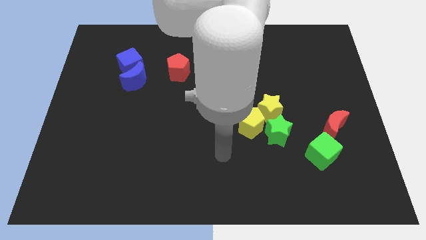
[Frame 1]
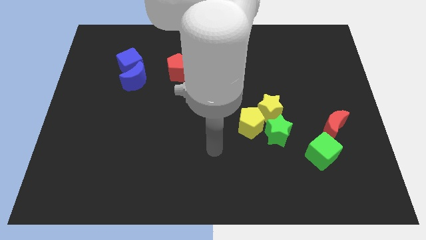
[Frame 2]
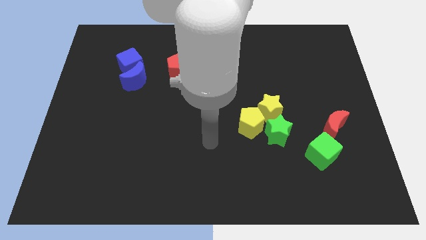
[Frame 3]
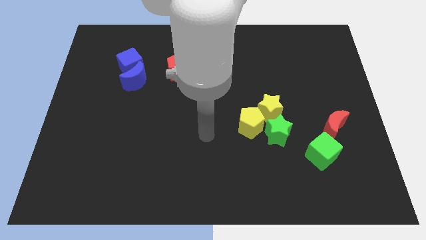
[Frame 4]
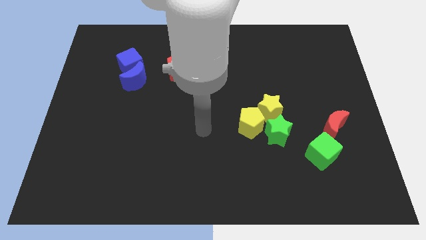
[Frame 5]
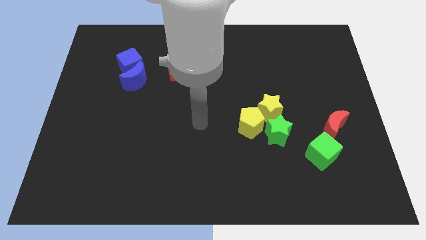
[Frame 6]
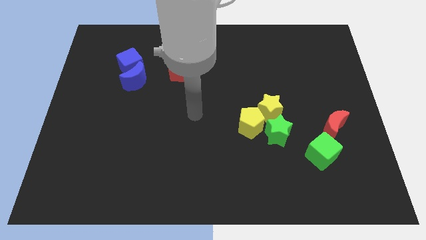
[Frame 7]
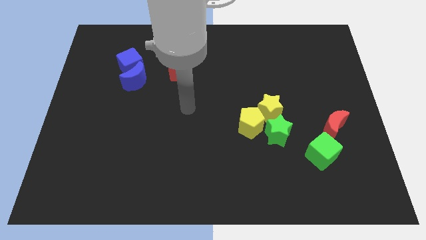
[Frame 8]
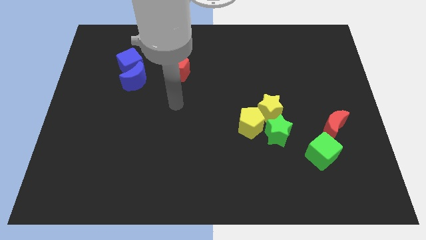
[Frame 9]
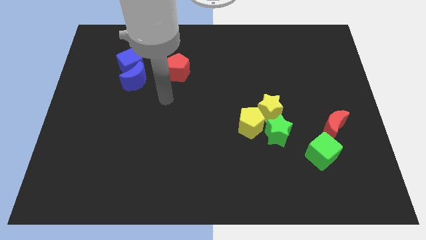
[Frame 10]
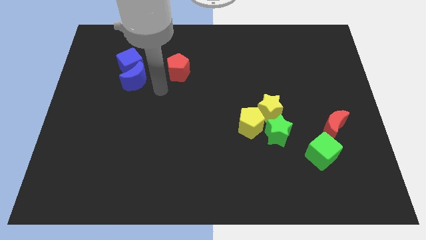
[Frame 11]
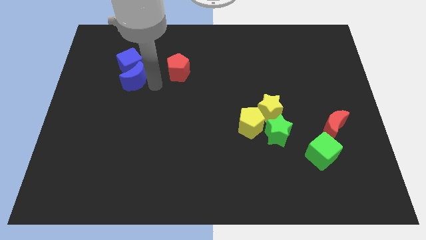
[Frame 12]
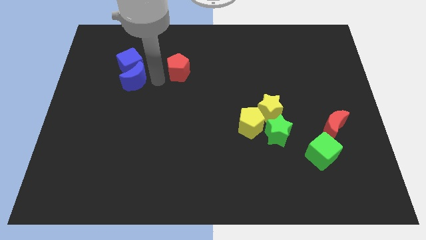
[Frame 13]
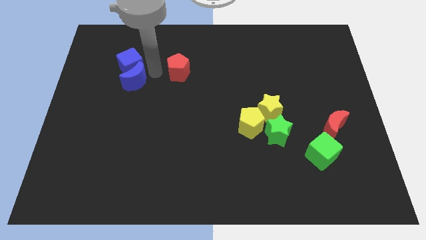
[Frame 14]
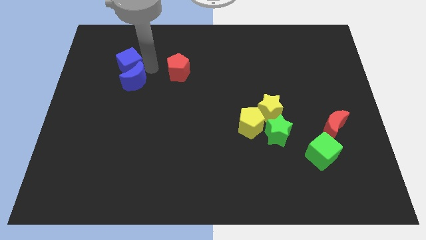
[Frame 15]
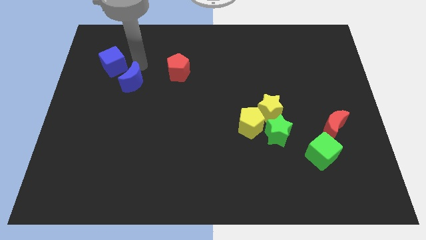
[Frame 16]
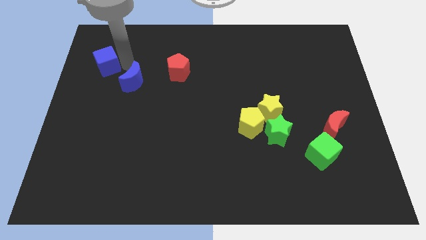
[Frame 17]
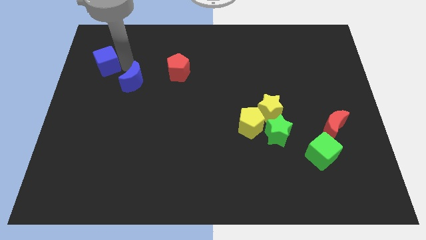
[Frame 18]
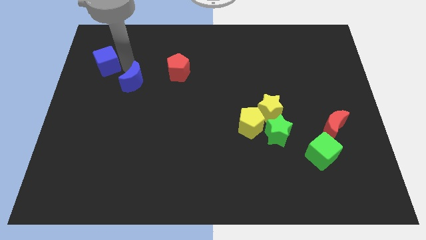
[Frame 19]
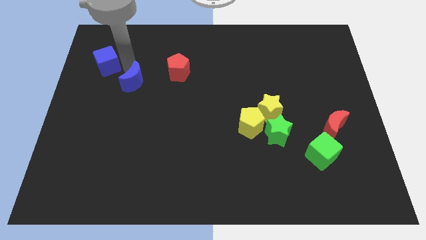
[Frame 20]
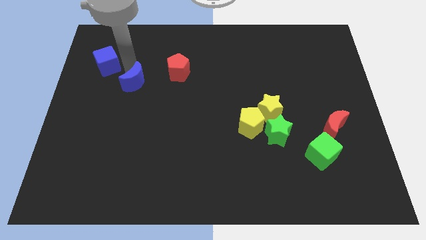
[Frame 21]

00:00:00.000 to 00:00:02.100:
move the blue moon away from the blue cube

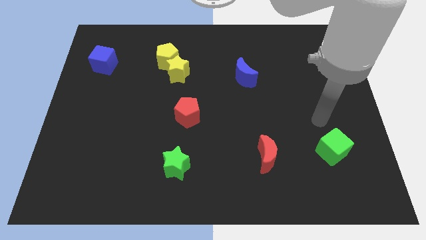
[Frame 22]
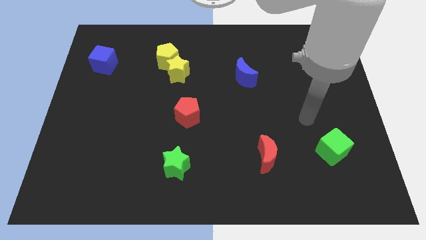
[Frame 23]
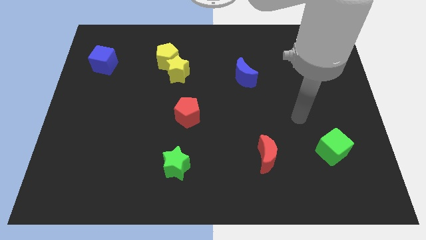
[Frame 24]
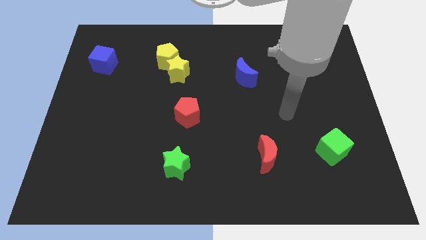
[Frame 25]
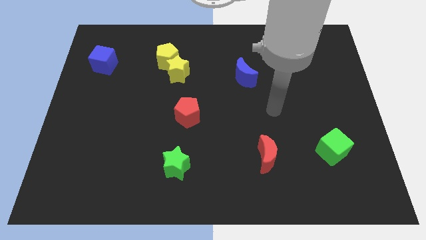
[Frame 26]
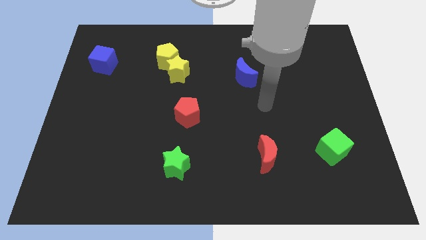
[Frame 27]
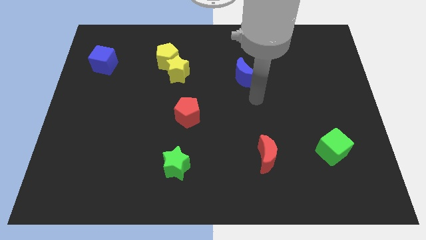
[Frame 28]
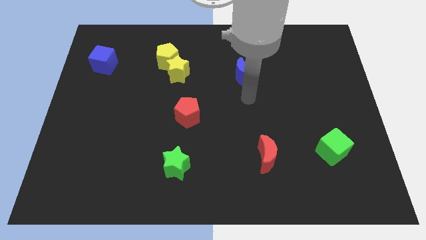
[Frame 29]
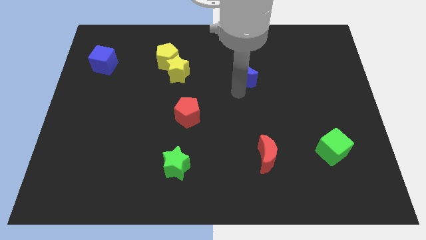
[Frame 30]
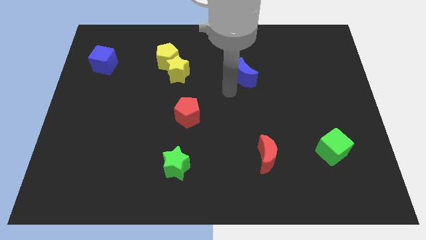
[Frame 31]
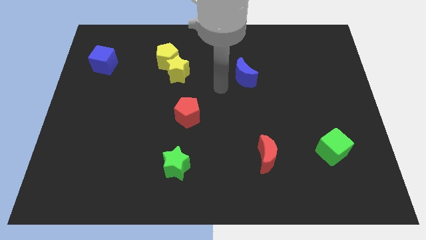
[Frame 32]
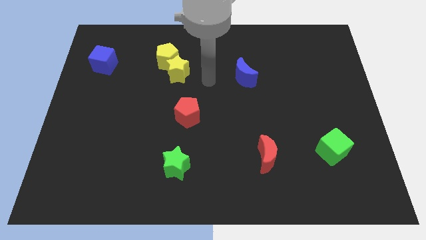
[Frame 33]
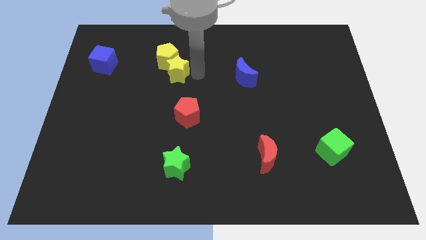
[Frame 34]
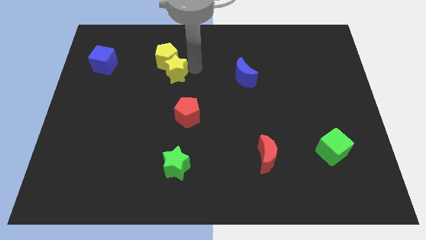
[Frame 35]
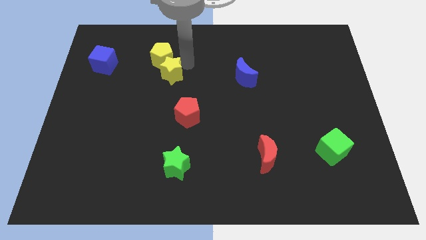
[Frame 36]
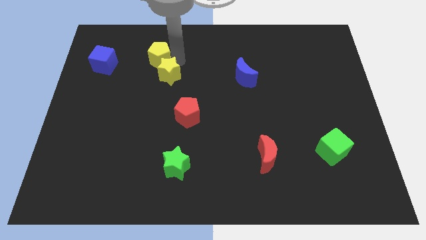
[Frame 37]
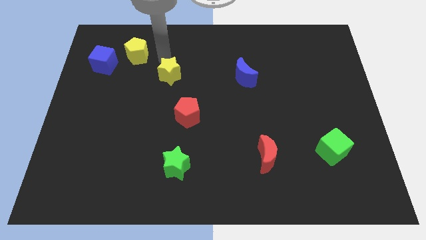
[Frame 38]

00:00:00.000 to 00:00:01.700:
separate the yellow star from the yellow pentagon

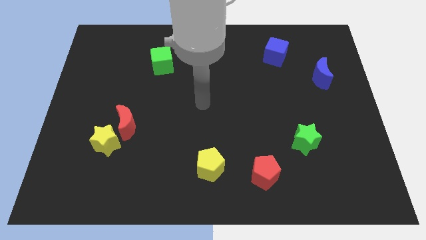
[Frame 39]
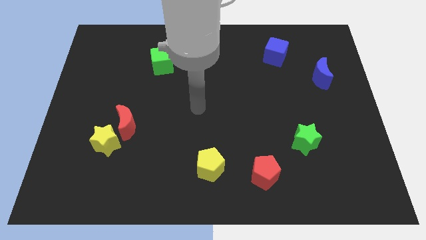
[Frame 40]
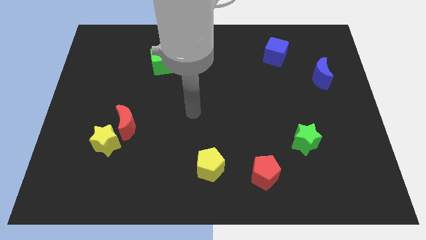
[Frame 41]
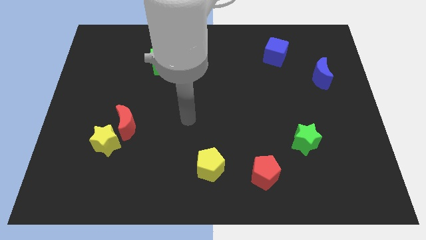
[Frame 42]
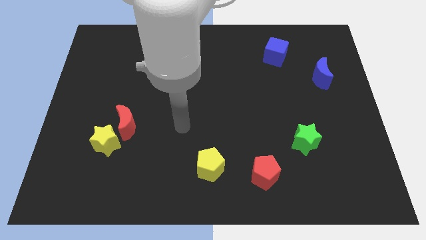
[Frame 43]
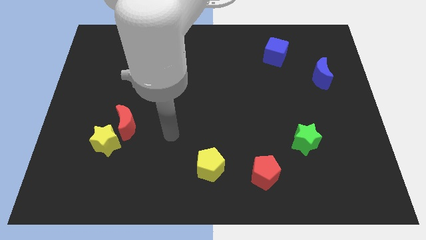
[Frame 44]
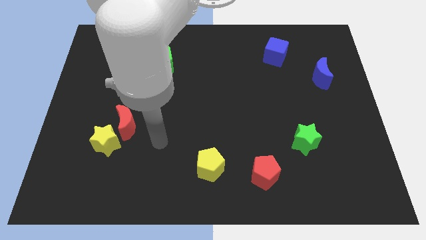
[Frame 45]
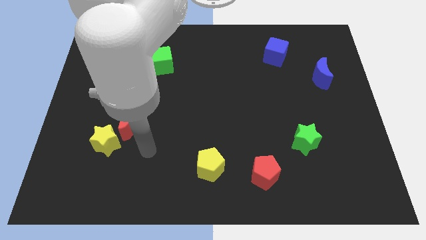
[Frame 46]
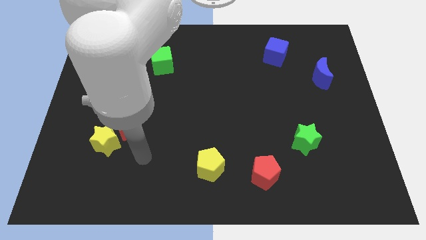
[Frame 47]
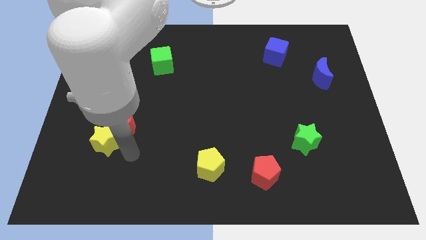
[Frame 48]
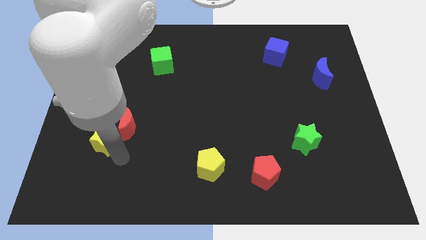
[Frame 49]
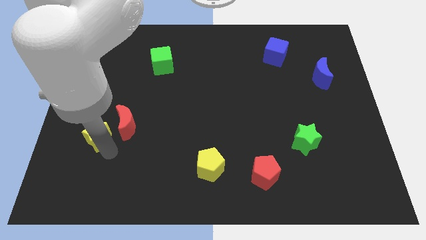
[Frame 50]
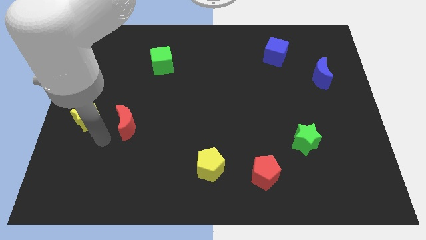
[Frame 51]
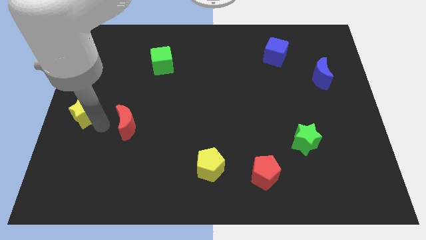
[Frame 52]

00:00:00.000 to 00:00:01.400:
pull the red moon apart from the yellow star

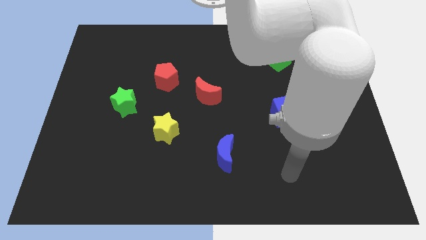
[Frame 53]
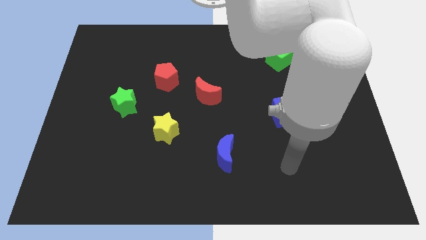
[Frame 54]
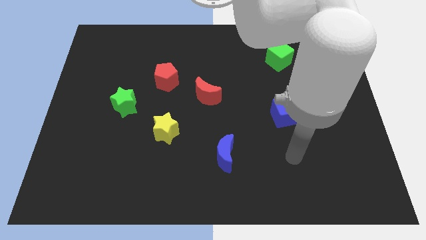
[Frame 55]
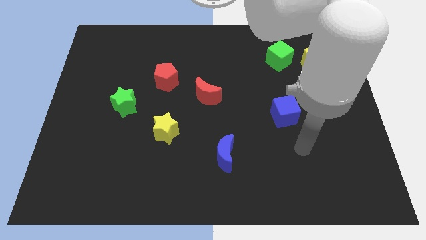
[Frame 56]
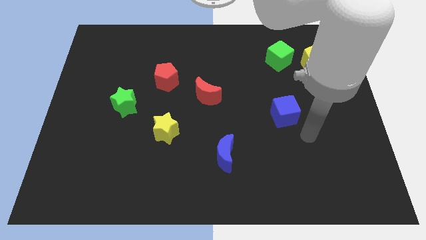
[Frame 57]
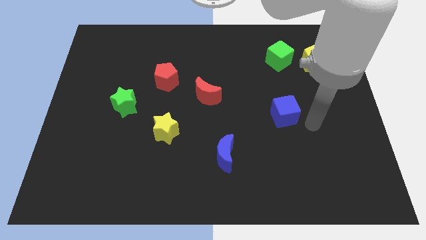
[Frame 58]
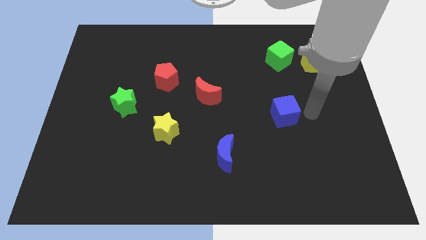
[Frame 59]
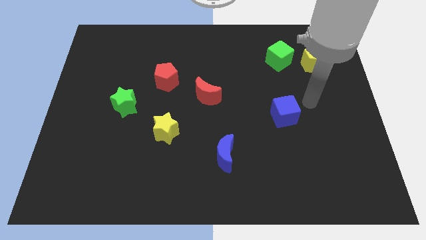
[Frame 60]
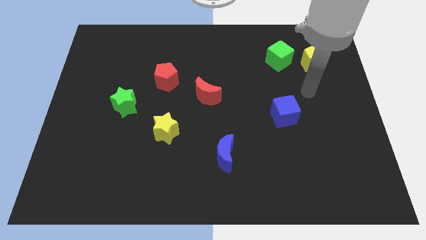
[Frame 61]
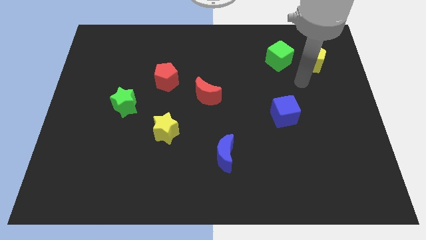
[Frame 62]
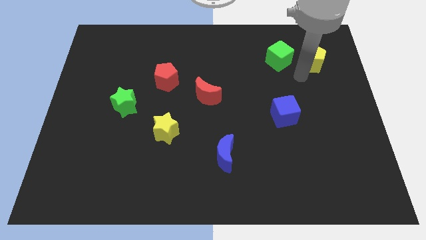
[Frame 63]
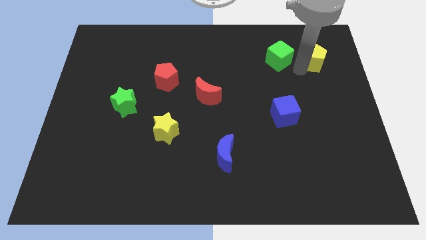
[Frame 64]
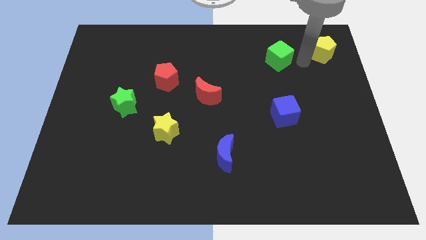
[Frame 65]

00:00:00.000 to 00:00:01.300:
pull the green cube apart from the yellow pentagon

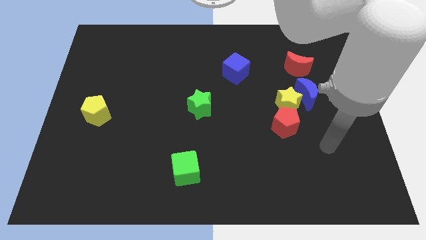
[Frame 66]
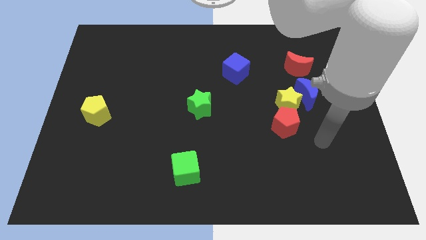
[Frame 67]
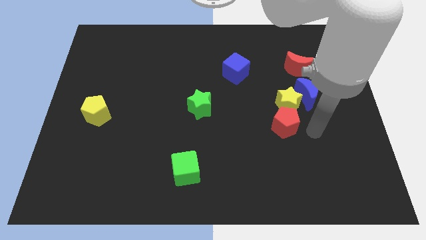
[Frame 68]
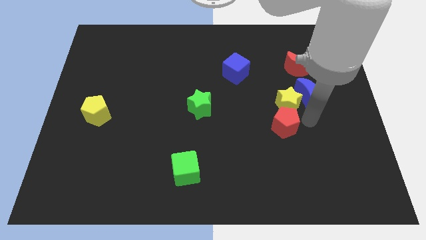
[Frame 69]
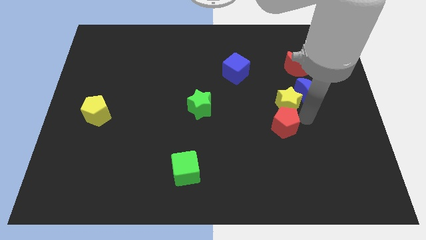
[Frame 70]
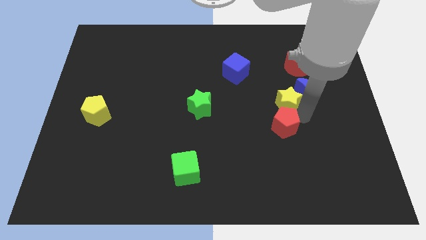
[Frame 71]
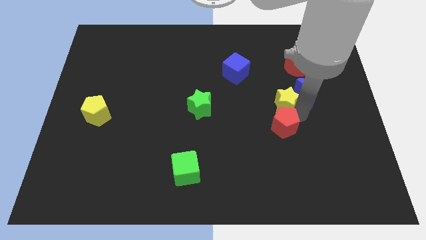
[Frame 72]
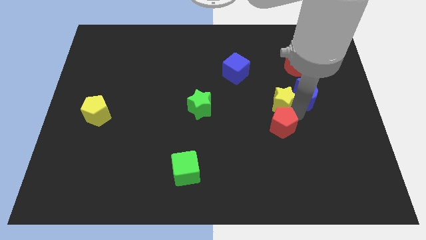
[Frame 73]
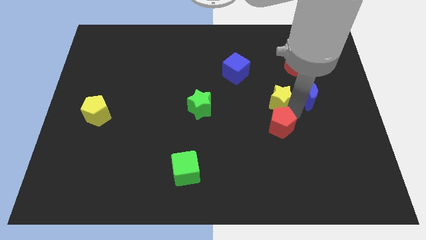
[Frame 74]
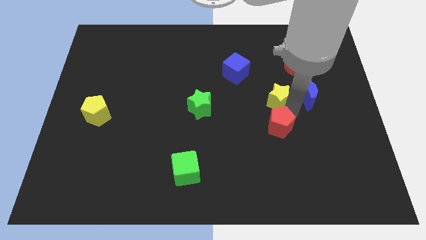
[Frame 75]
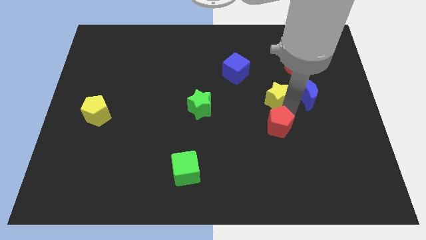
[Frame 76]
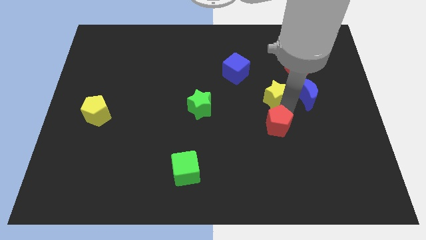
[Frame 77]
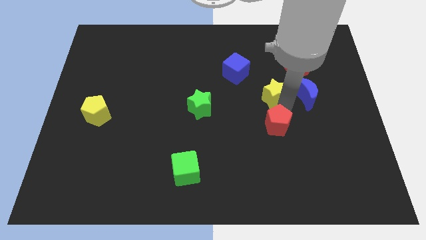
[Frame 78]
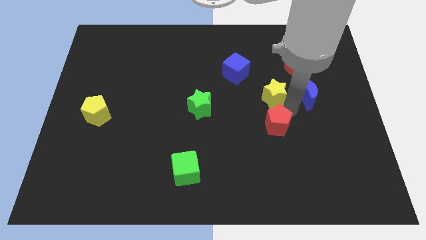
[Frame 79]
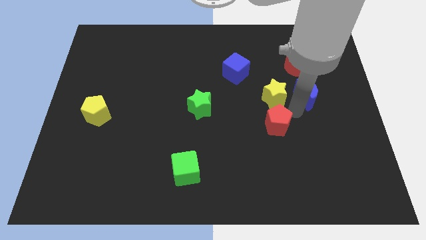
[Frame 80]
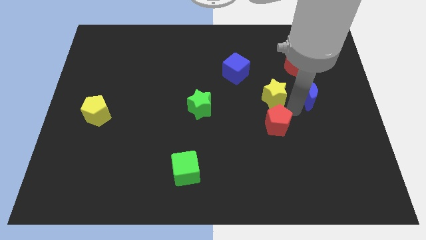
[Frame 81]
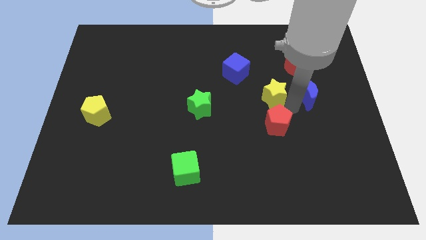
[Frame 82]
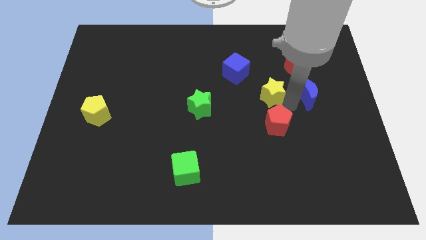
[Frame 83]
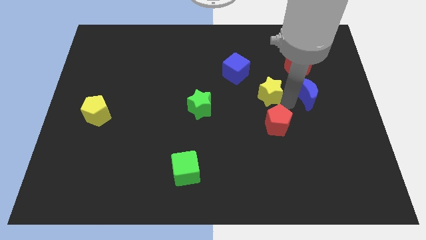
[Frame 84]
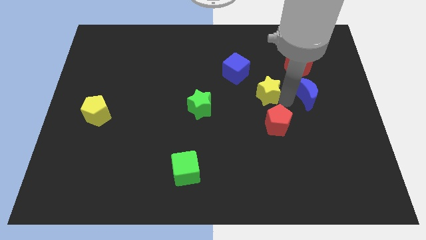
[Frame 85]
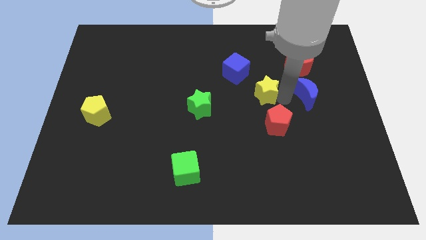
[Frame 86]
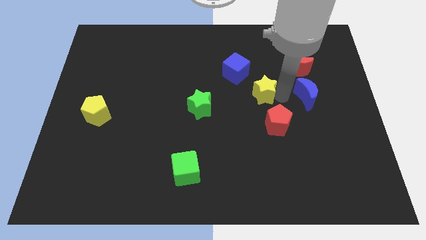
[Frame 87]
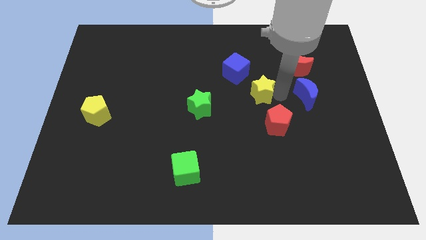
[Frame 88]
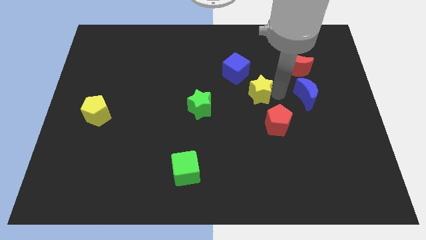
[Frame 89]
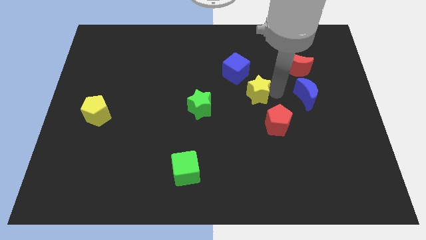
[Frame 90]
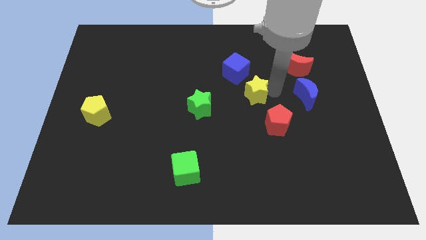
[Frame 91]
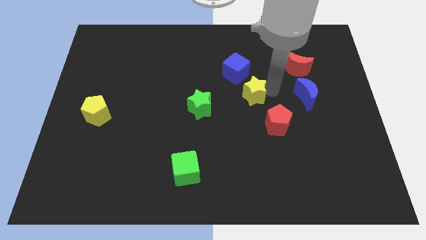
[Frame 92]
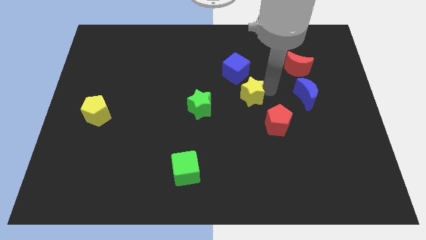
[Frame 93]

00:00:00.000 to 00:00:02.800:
move the yellow star away from the blue moon and red pentagon
